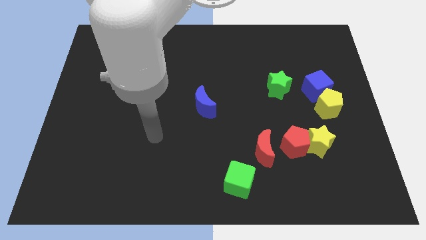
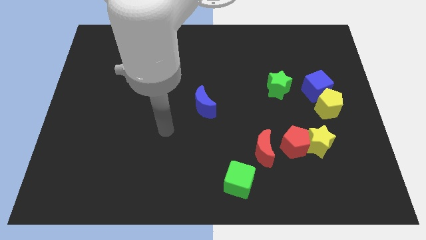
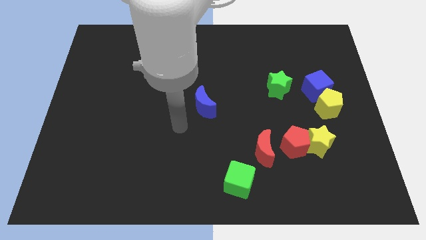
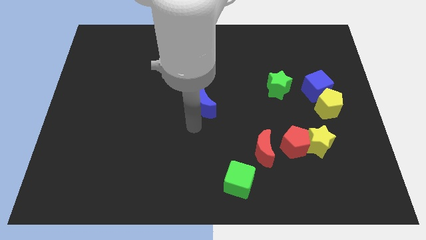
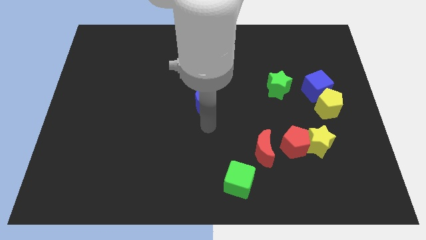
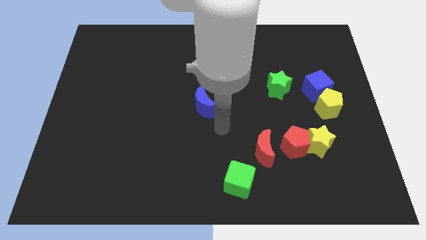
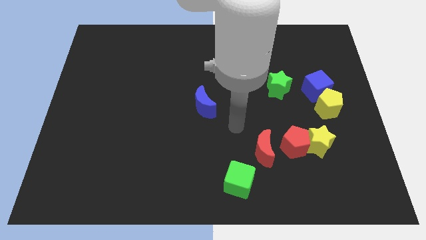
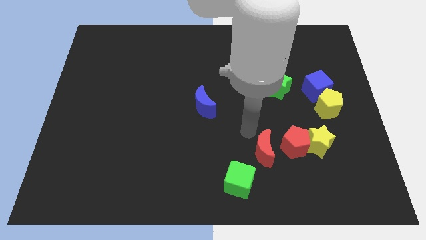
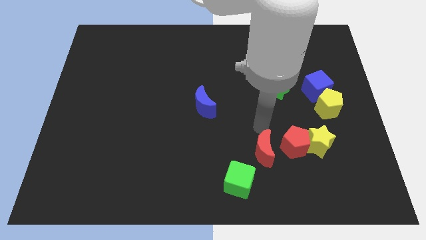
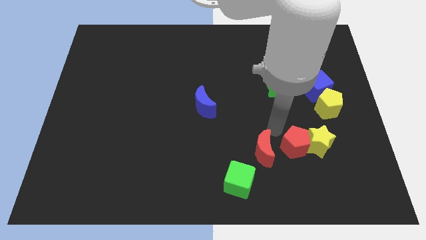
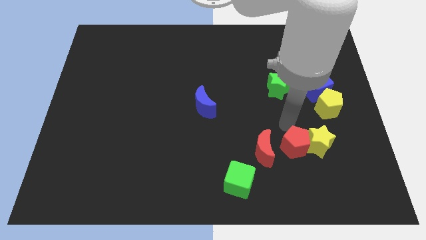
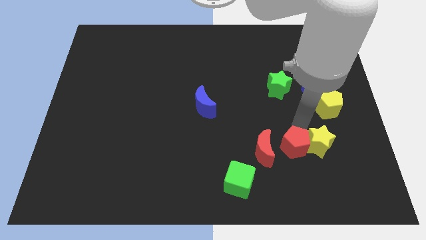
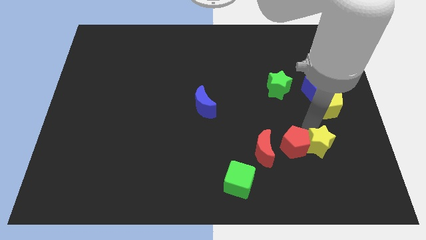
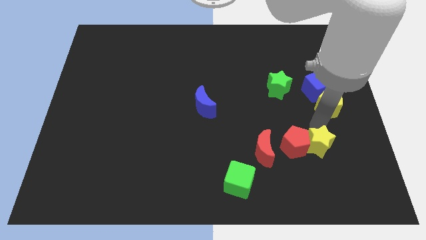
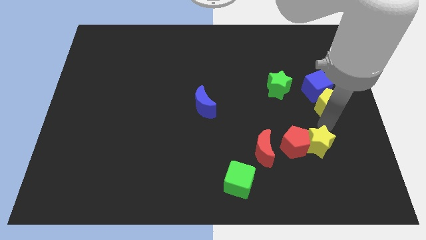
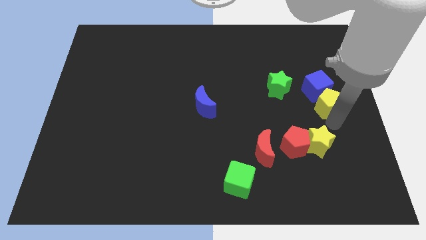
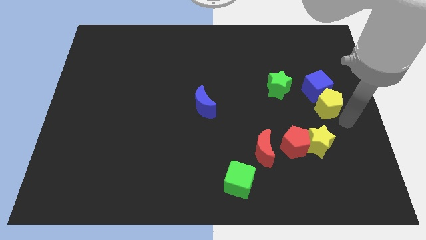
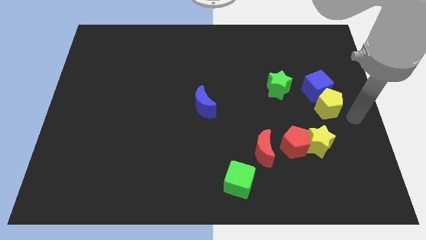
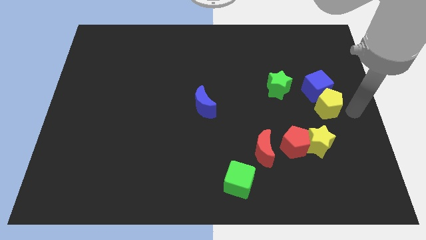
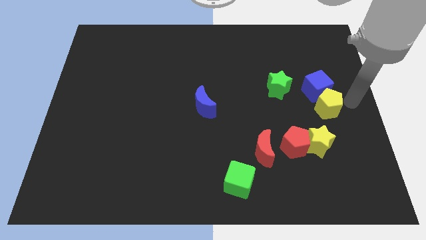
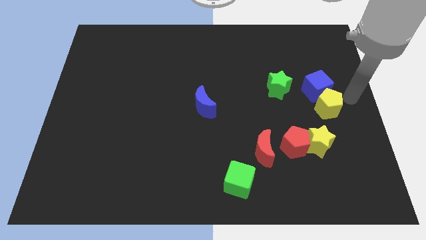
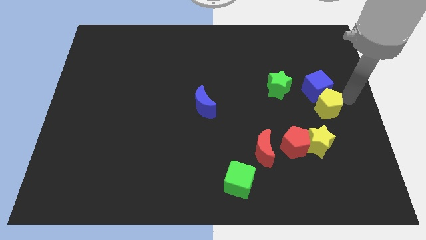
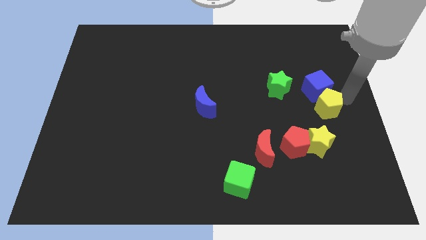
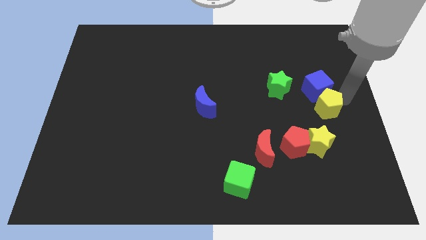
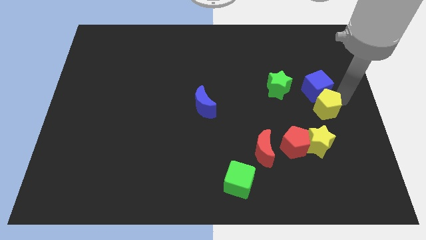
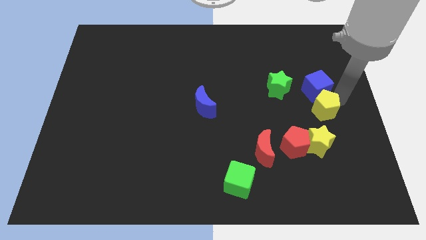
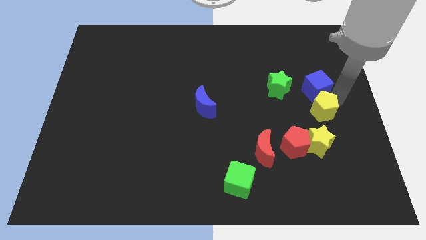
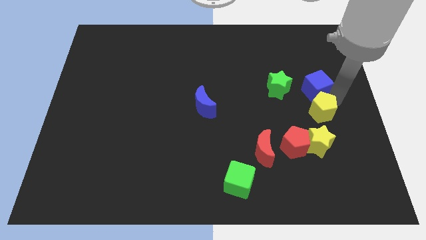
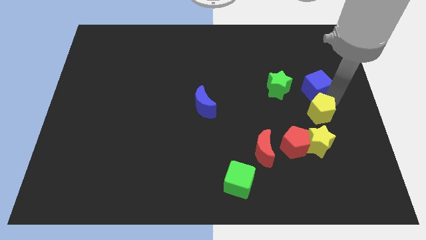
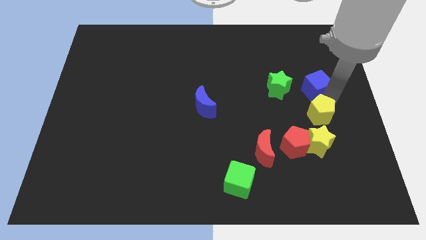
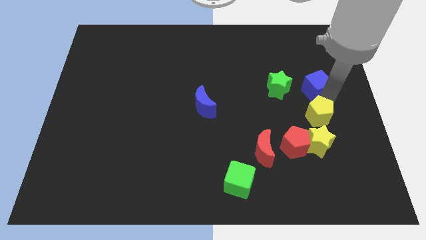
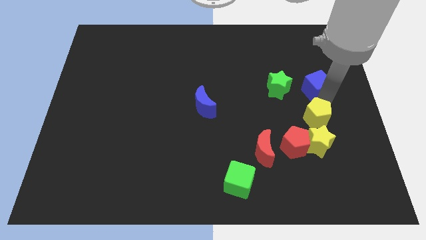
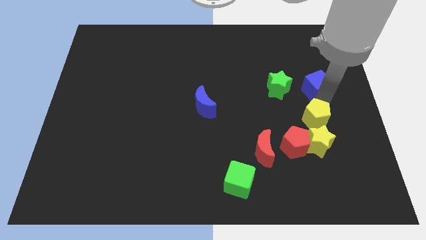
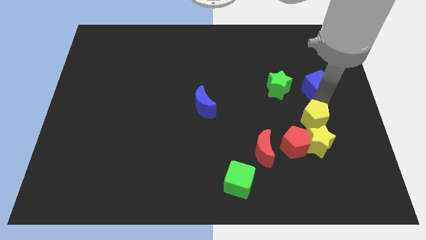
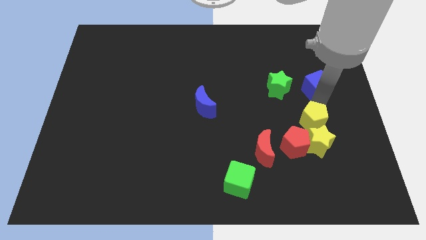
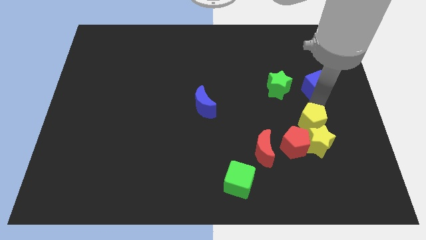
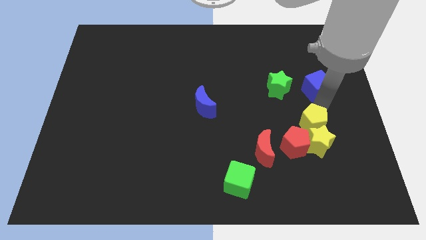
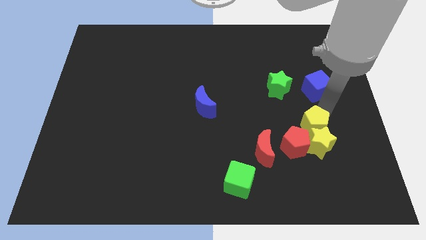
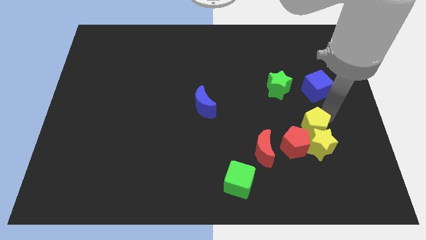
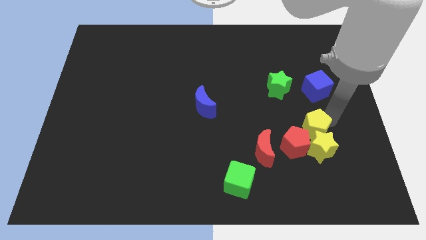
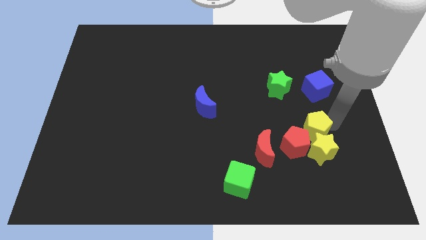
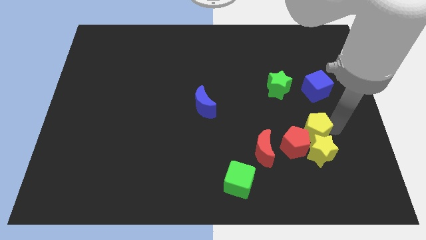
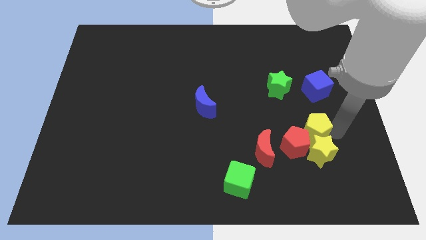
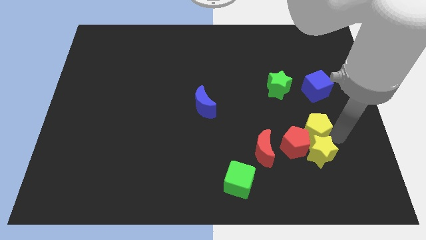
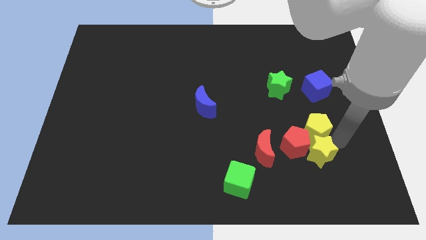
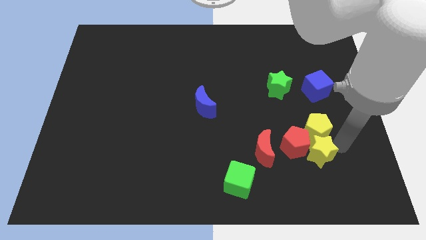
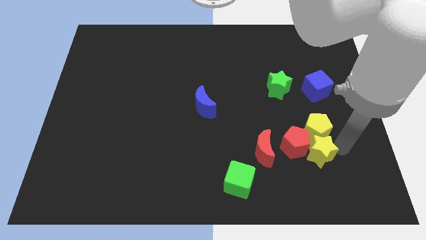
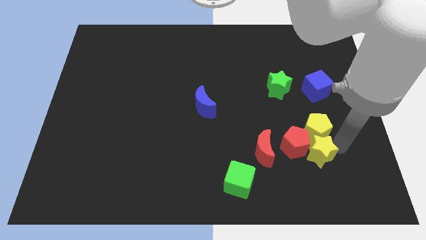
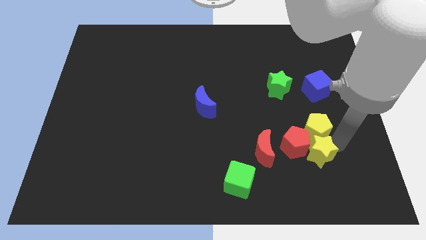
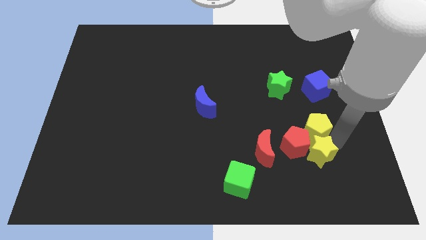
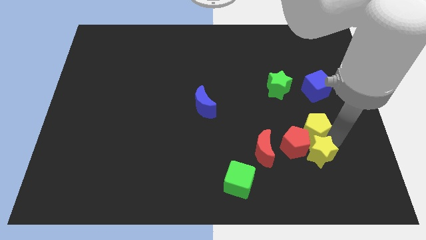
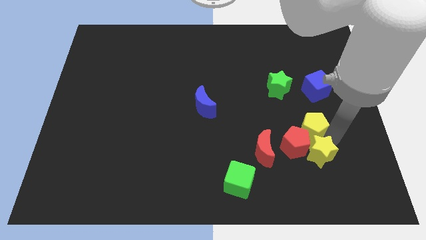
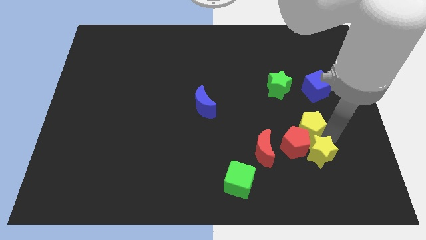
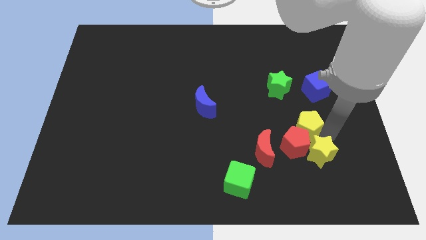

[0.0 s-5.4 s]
push the yellow pentagon to the top right side of the red moon

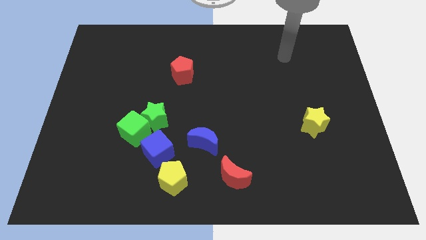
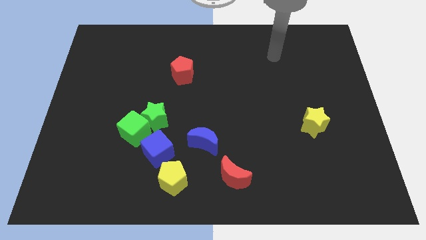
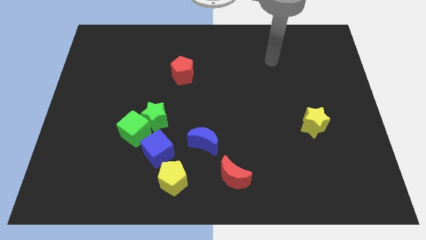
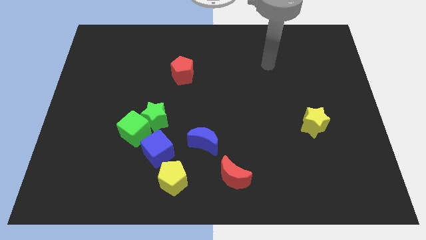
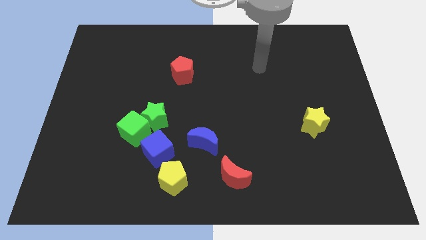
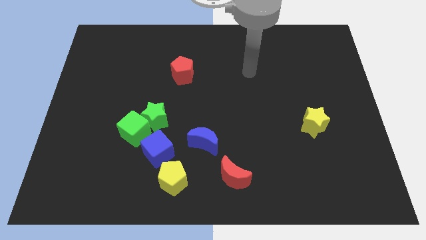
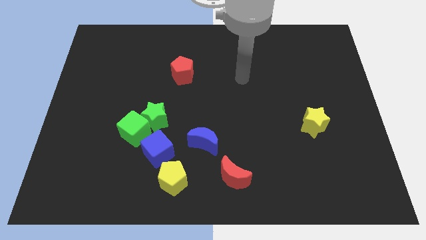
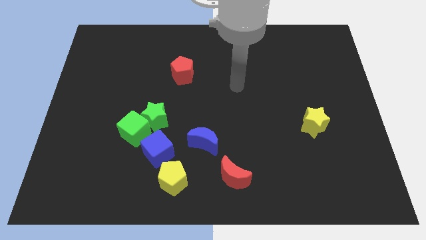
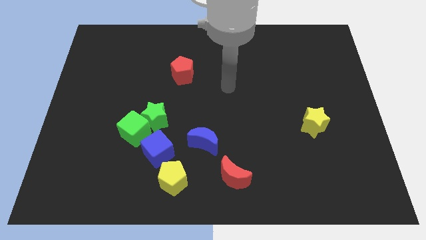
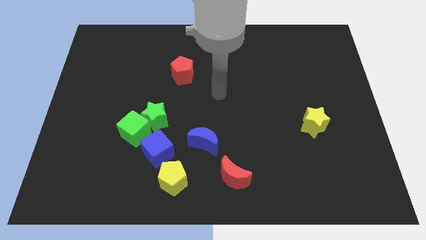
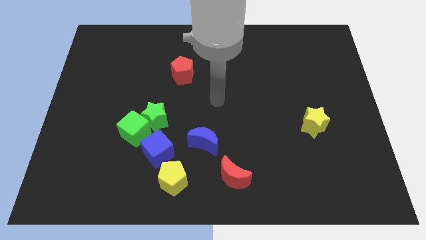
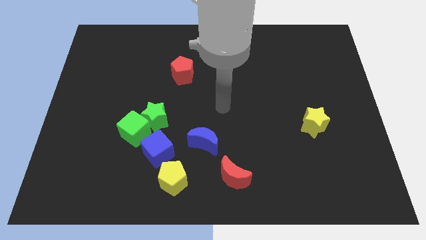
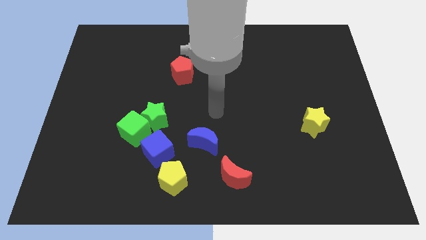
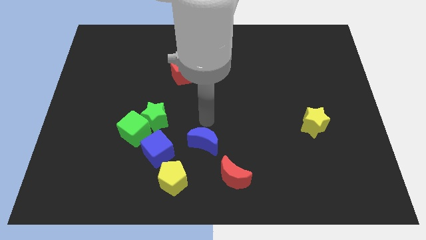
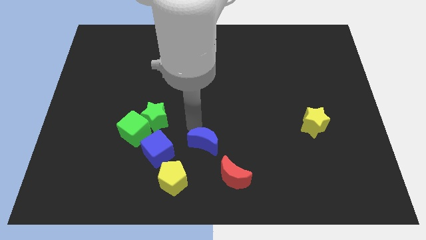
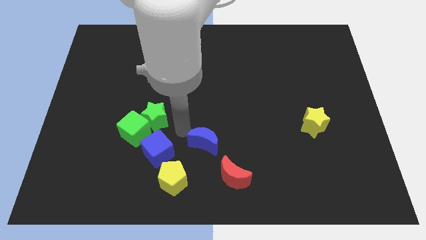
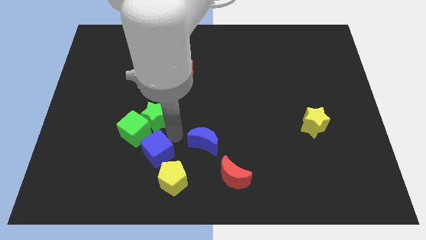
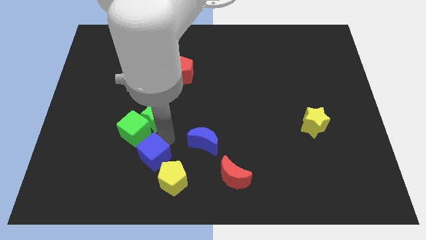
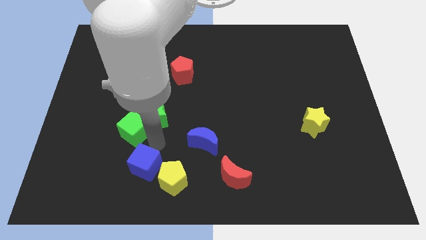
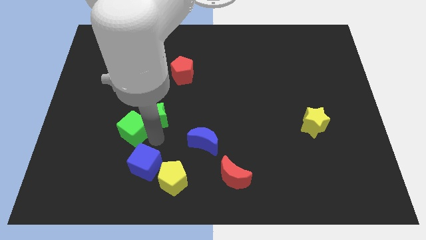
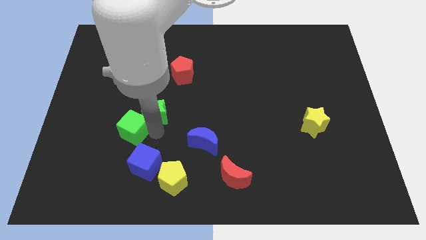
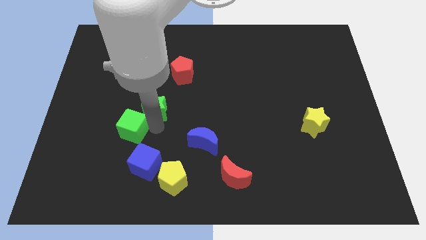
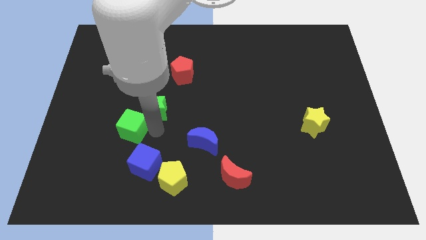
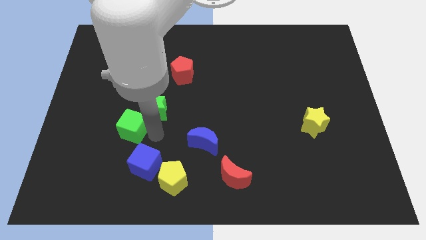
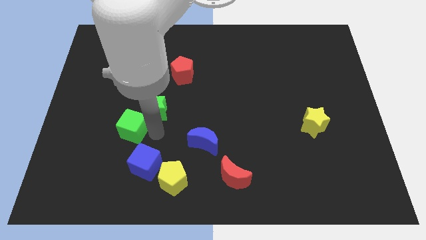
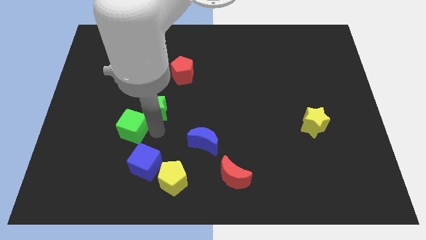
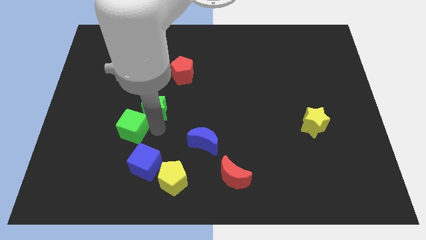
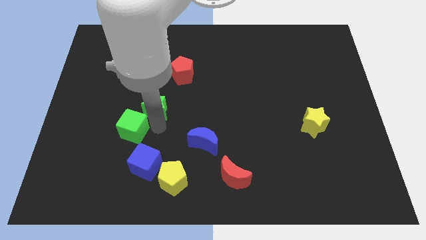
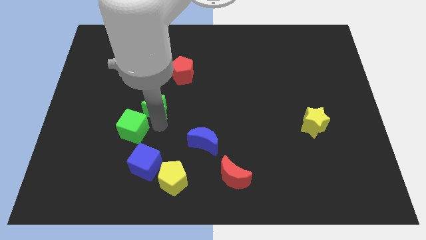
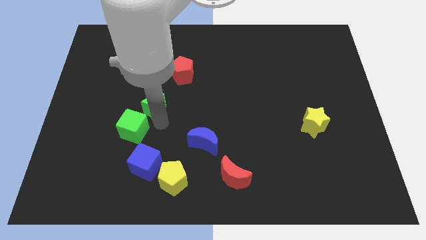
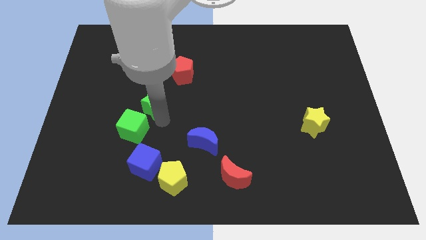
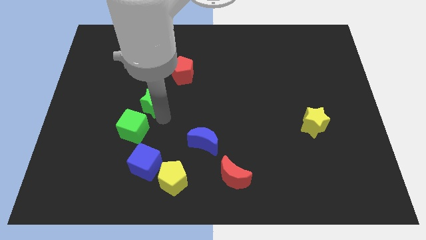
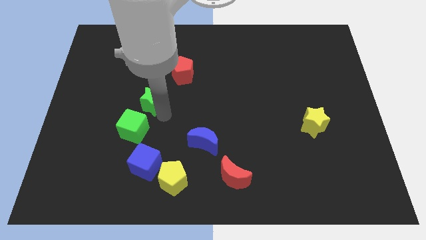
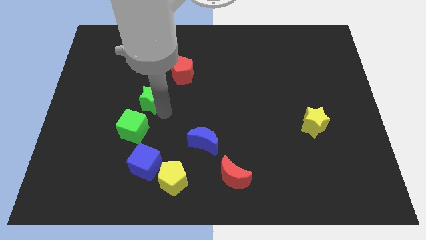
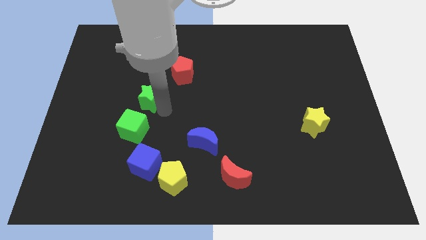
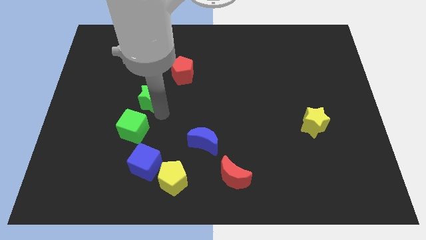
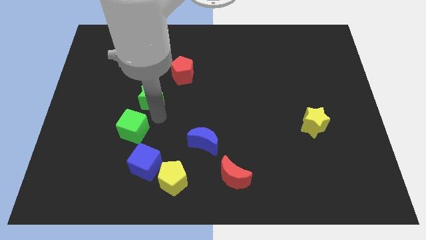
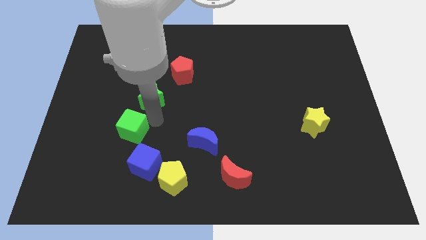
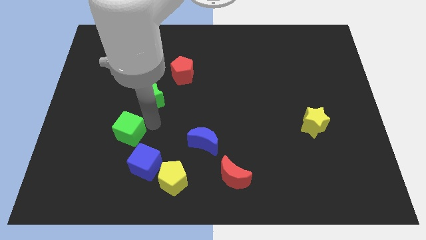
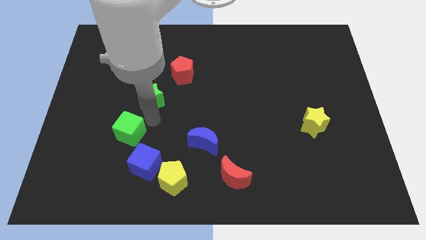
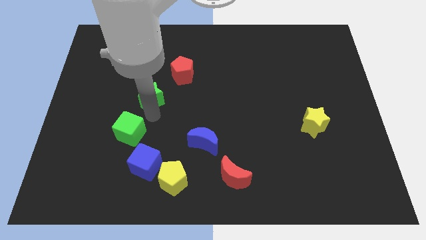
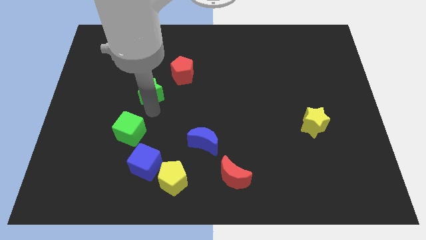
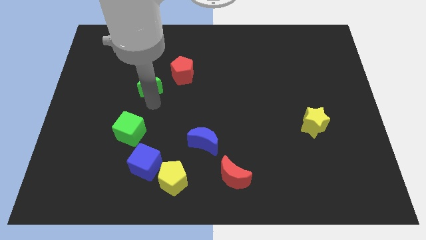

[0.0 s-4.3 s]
move the green star just left of the red pentagon
